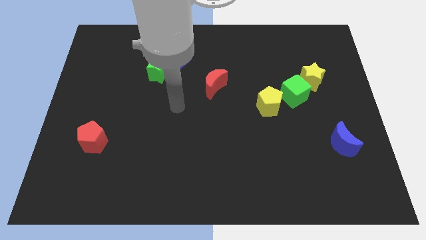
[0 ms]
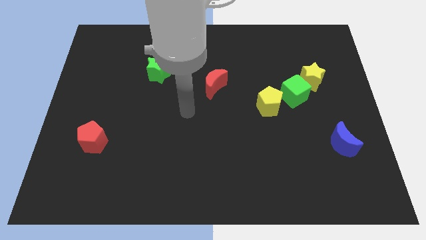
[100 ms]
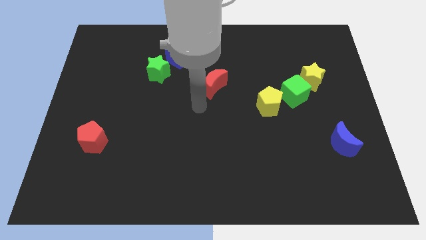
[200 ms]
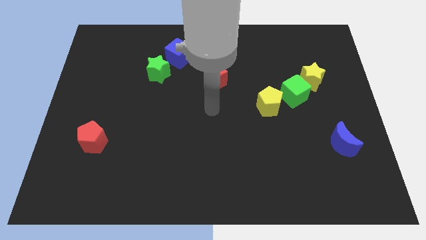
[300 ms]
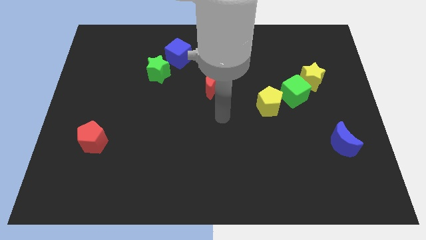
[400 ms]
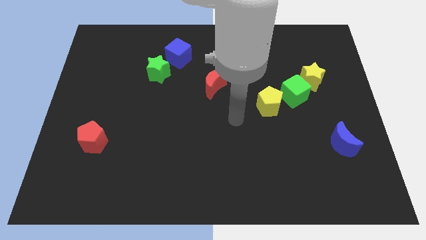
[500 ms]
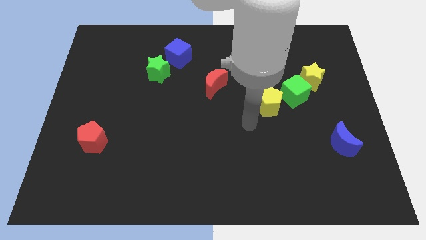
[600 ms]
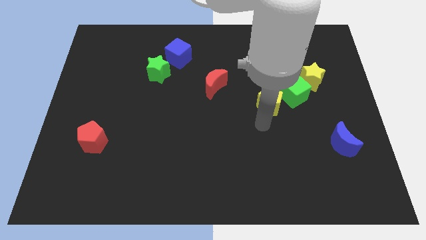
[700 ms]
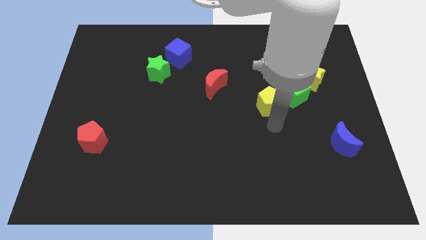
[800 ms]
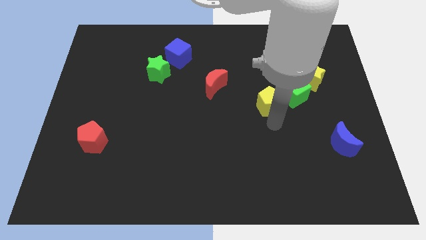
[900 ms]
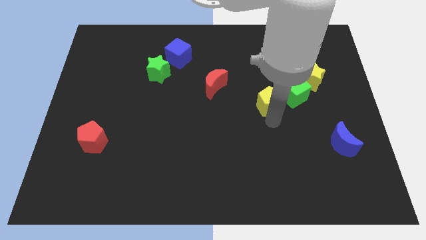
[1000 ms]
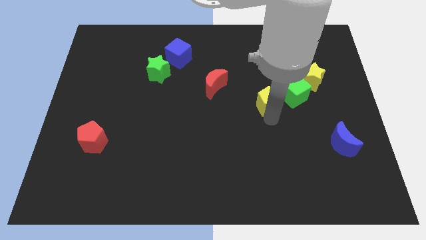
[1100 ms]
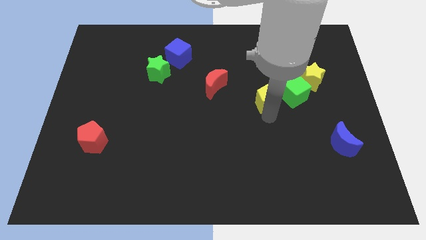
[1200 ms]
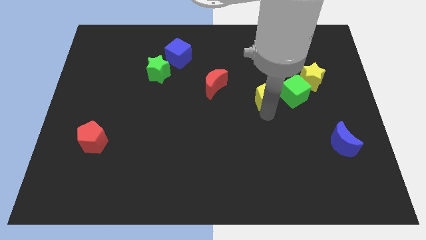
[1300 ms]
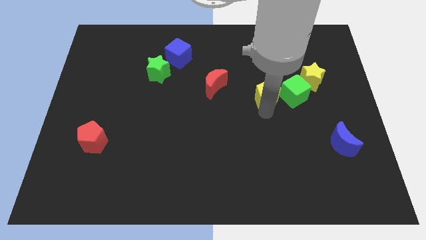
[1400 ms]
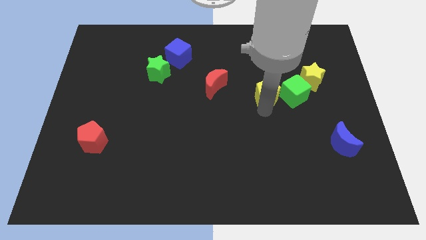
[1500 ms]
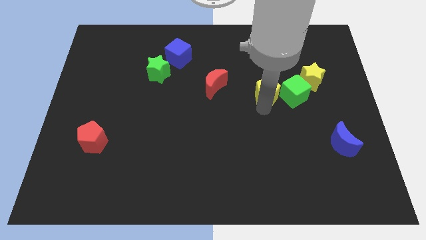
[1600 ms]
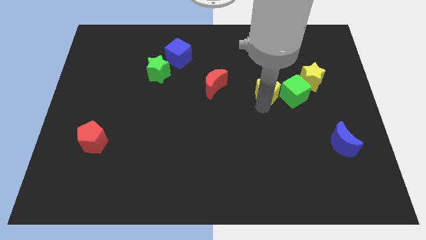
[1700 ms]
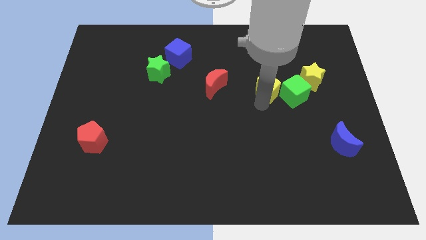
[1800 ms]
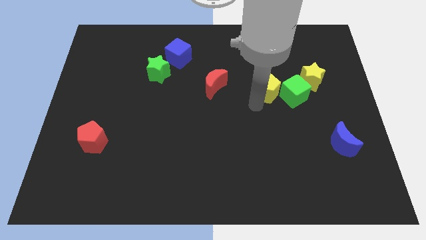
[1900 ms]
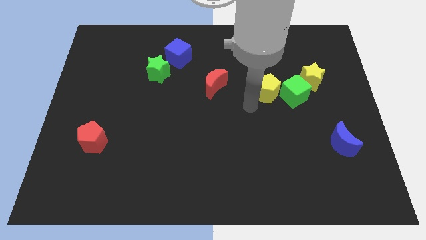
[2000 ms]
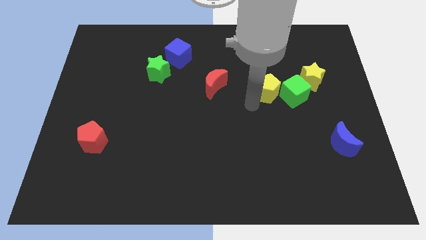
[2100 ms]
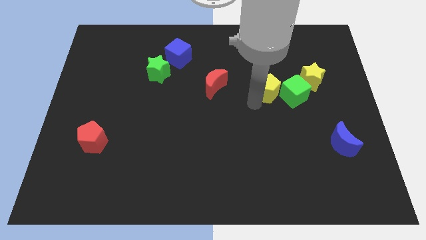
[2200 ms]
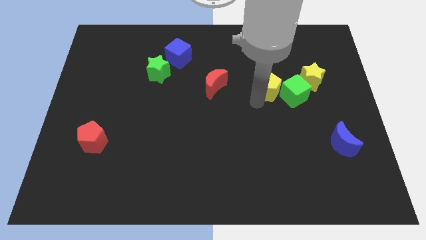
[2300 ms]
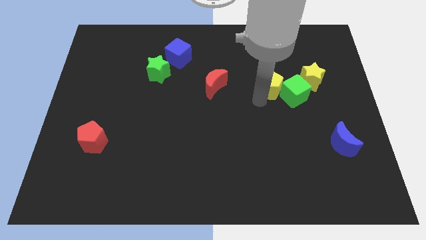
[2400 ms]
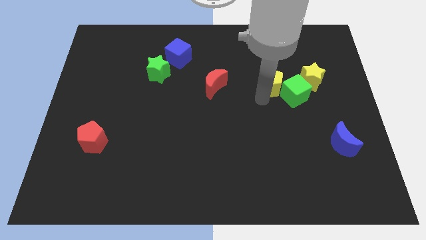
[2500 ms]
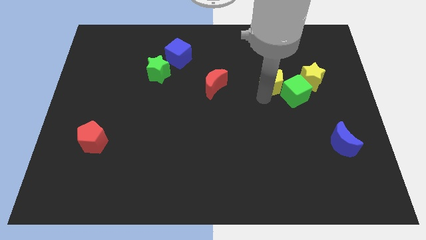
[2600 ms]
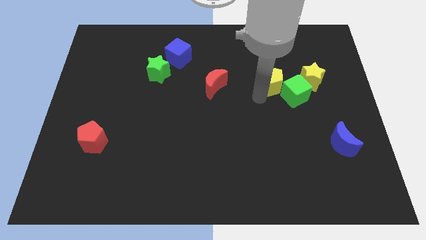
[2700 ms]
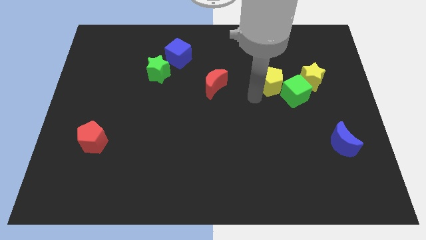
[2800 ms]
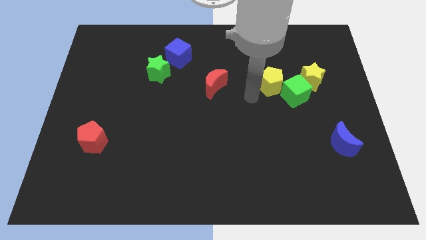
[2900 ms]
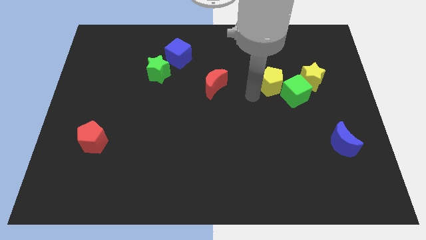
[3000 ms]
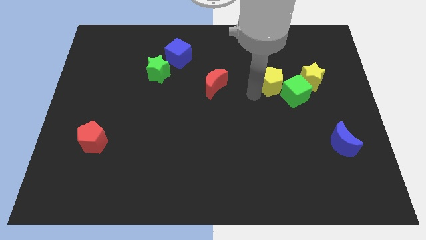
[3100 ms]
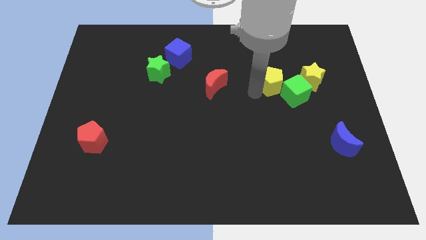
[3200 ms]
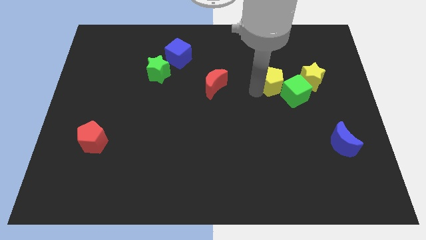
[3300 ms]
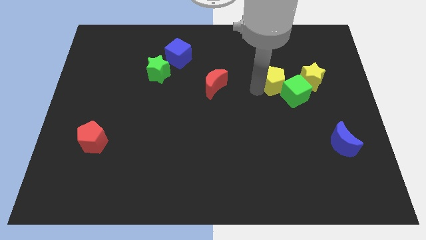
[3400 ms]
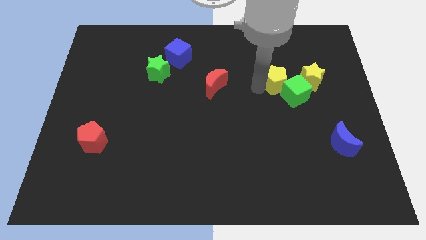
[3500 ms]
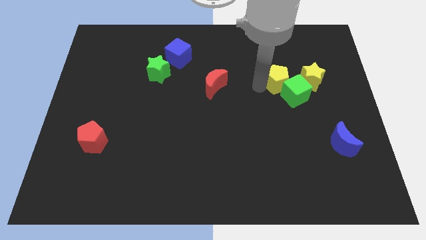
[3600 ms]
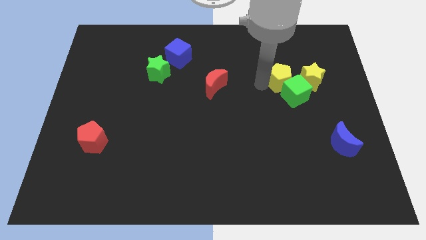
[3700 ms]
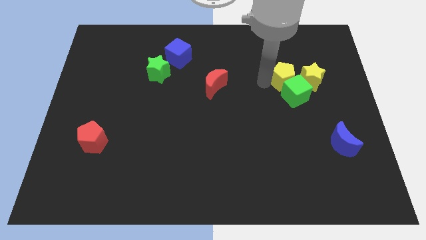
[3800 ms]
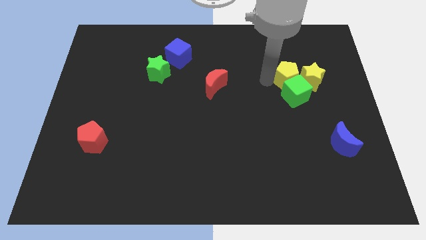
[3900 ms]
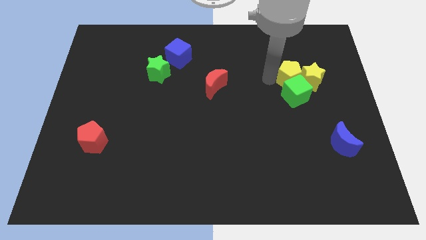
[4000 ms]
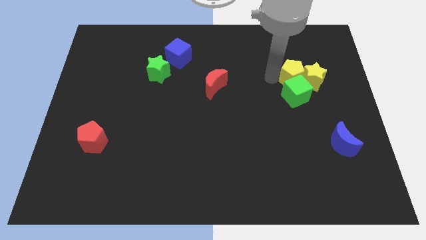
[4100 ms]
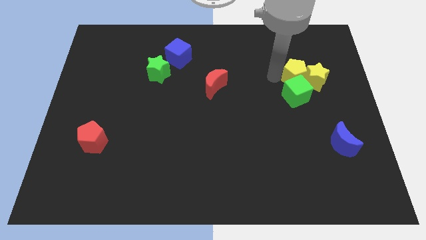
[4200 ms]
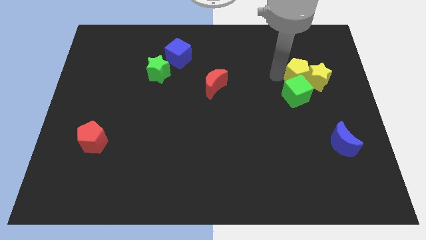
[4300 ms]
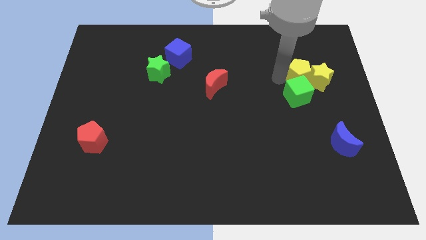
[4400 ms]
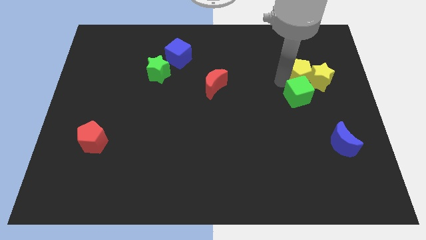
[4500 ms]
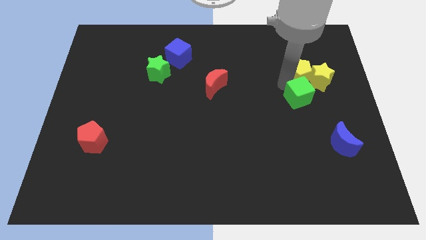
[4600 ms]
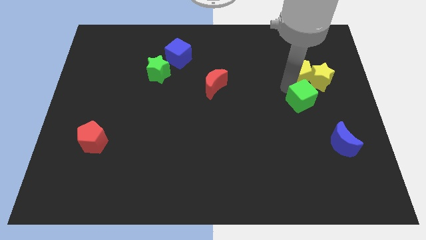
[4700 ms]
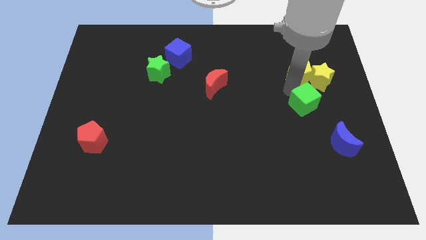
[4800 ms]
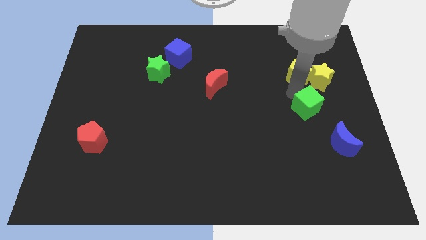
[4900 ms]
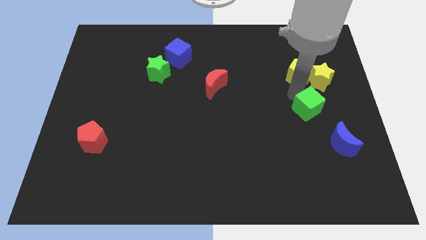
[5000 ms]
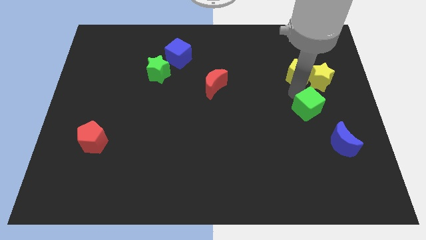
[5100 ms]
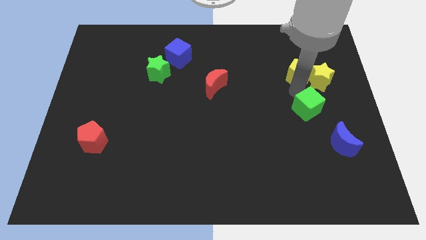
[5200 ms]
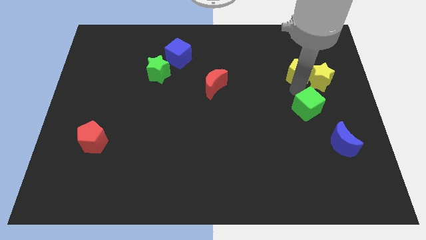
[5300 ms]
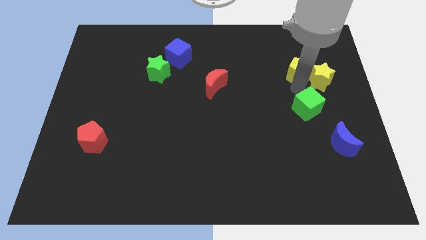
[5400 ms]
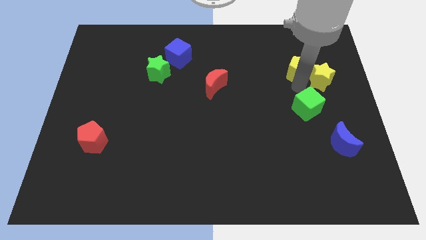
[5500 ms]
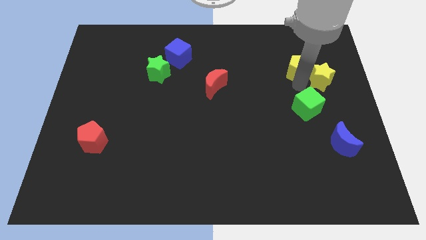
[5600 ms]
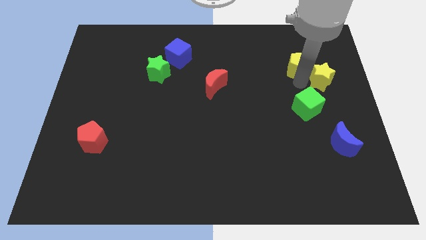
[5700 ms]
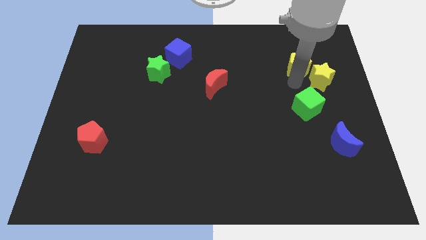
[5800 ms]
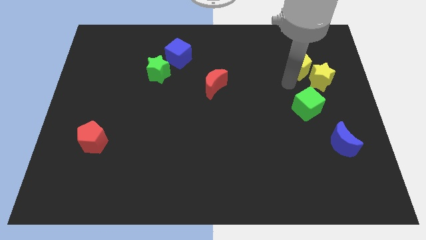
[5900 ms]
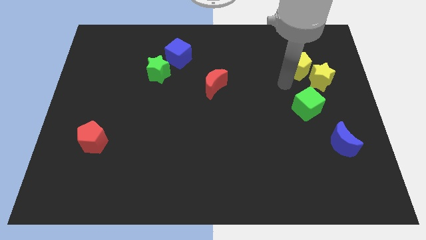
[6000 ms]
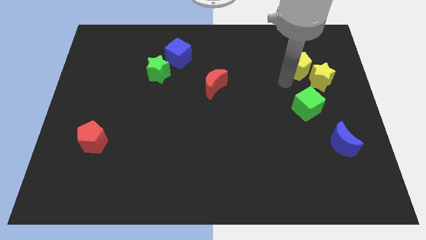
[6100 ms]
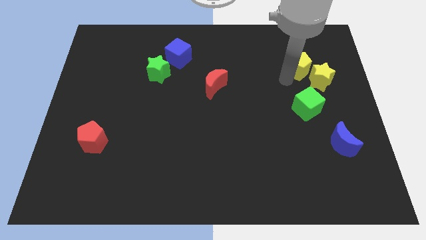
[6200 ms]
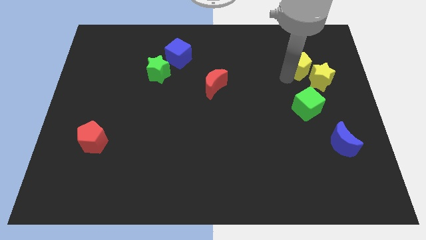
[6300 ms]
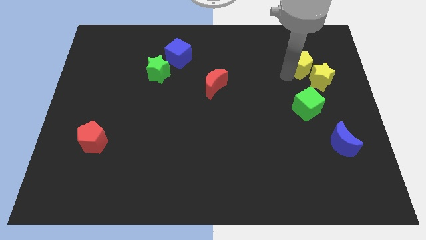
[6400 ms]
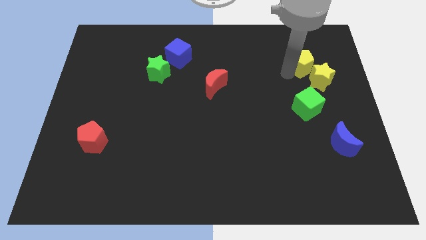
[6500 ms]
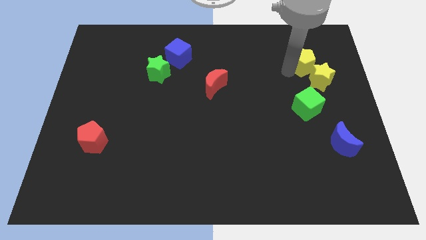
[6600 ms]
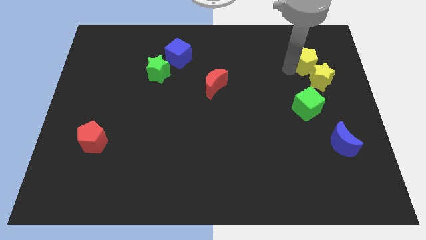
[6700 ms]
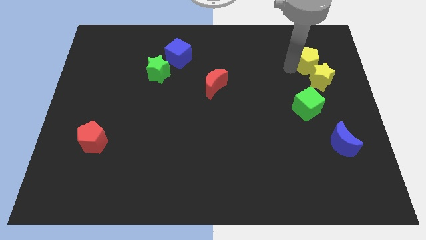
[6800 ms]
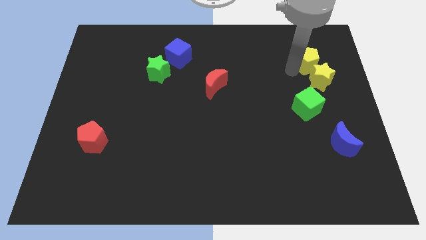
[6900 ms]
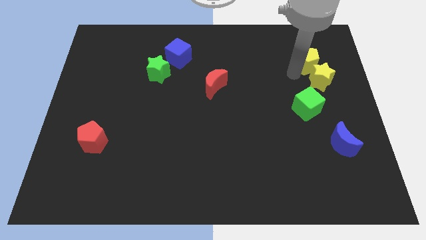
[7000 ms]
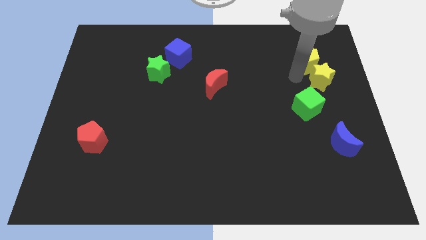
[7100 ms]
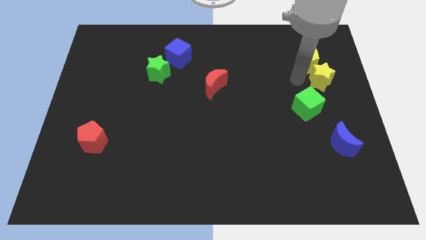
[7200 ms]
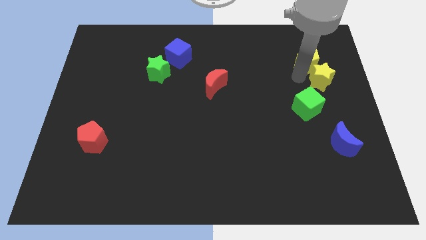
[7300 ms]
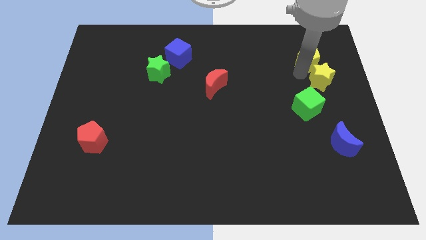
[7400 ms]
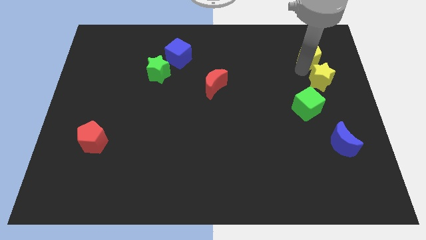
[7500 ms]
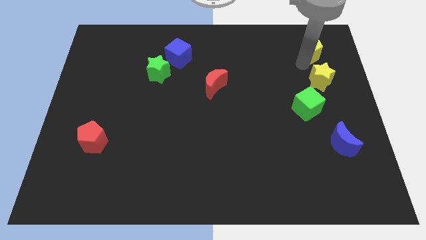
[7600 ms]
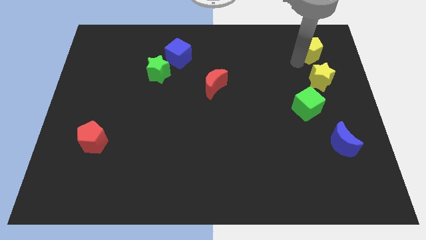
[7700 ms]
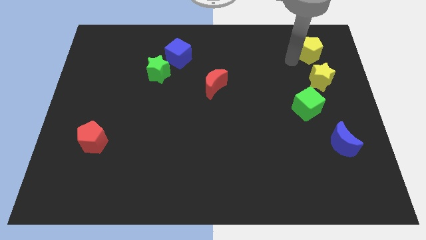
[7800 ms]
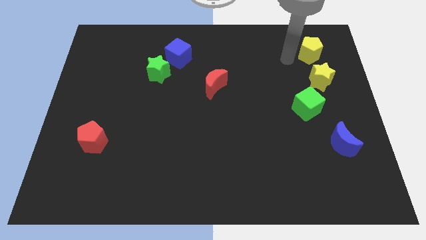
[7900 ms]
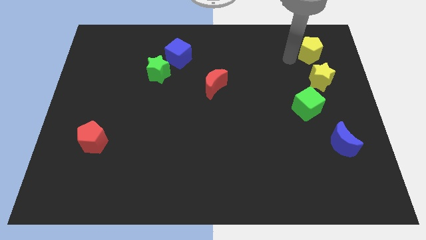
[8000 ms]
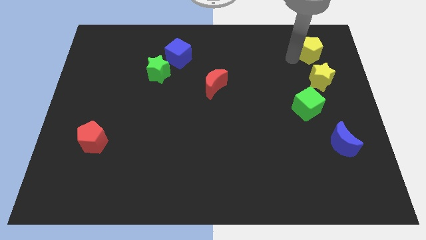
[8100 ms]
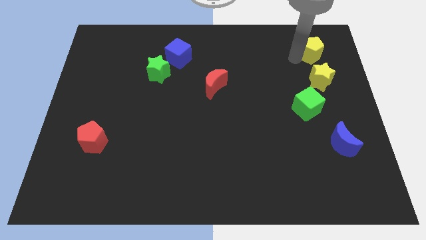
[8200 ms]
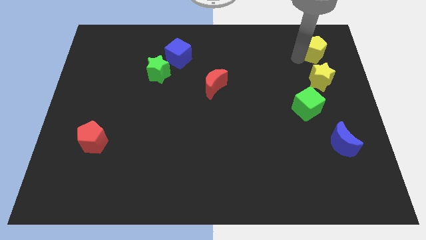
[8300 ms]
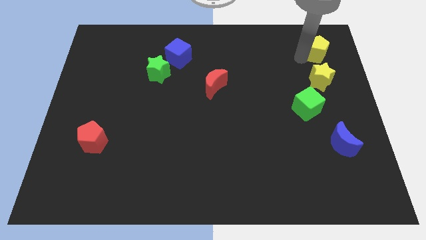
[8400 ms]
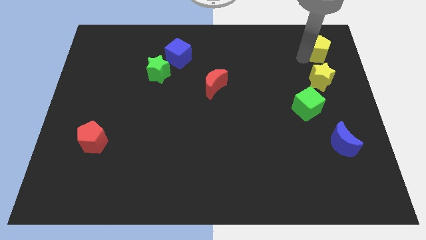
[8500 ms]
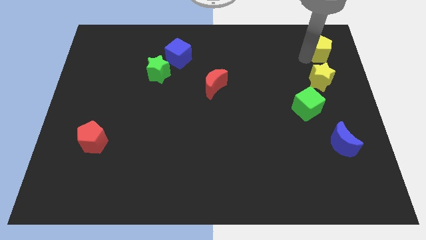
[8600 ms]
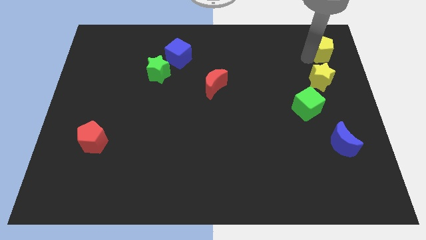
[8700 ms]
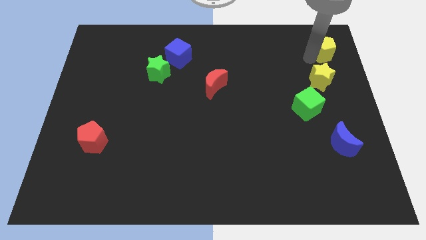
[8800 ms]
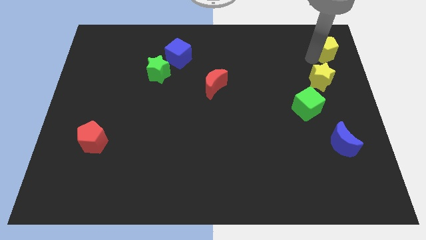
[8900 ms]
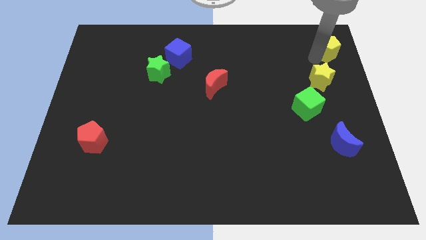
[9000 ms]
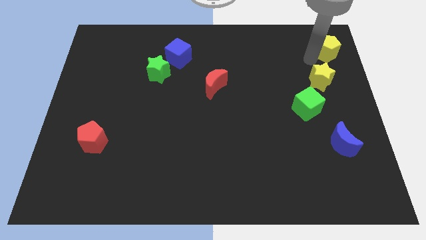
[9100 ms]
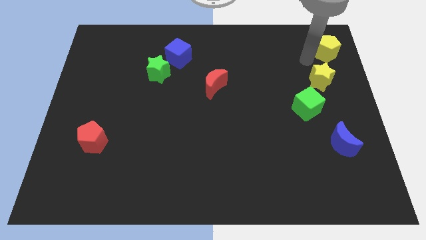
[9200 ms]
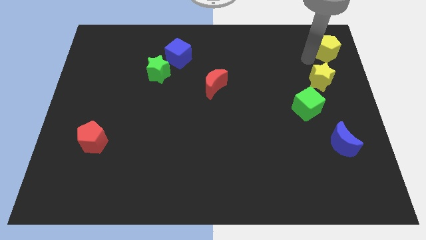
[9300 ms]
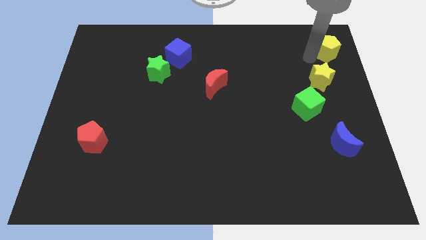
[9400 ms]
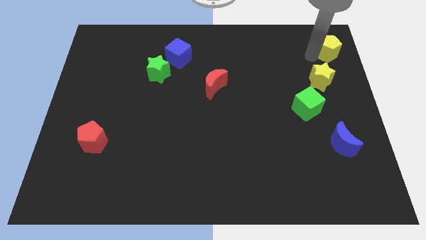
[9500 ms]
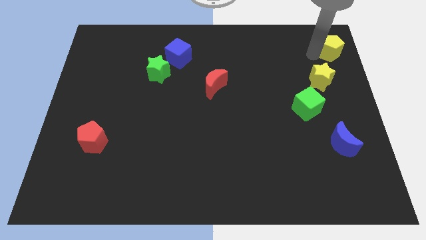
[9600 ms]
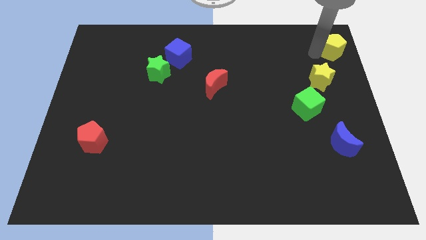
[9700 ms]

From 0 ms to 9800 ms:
slide the yellow pentagon to the top right of the board
